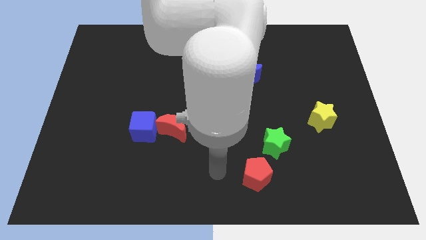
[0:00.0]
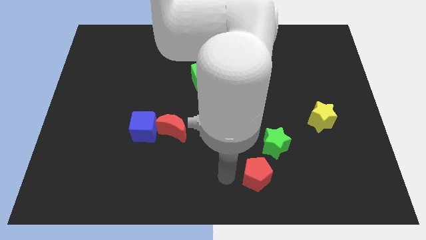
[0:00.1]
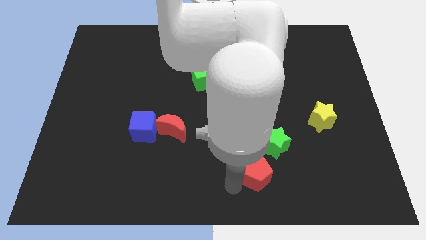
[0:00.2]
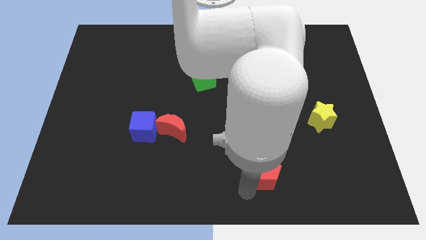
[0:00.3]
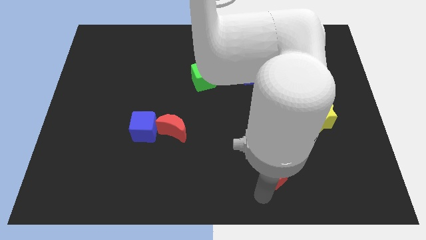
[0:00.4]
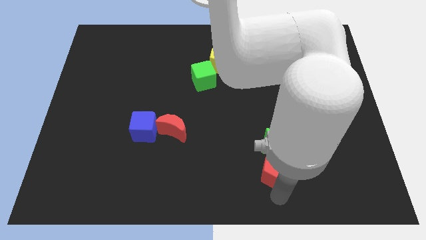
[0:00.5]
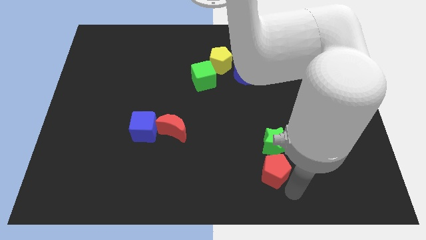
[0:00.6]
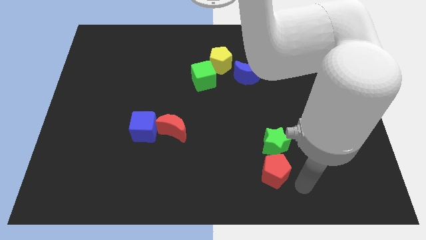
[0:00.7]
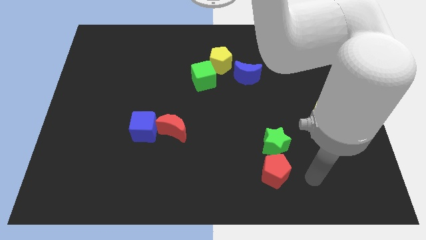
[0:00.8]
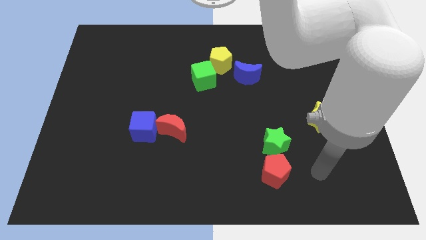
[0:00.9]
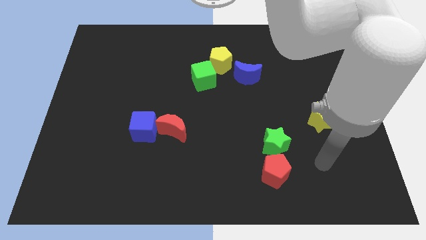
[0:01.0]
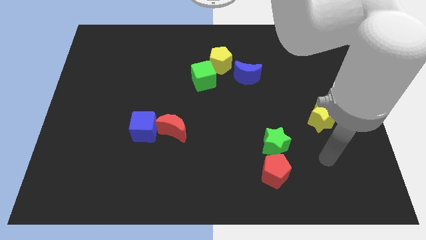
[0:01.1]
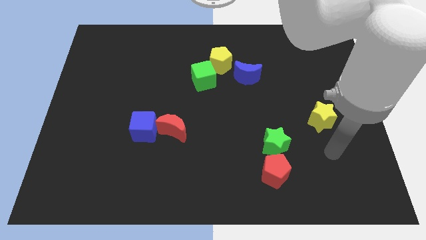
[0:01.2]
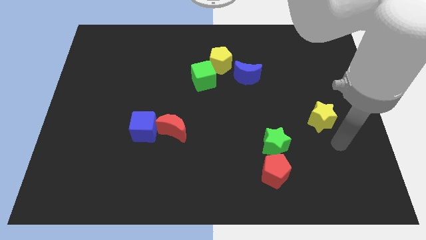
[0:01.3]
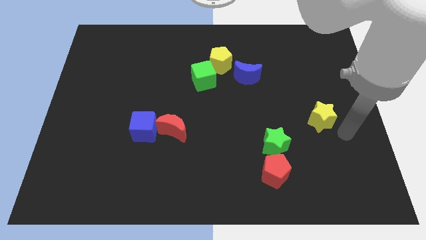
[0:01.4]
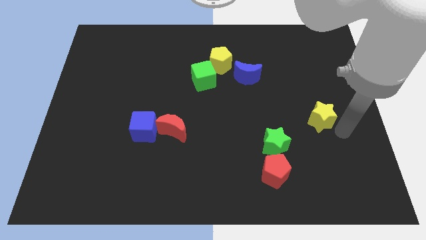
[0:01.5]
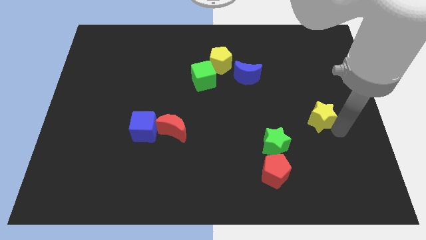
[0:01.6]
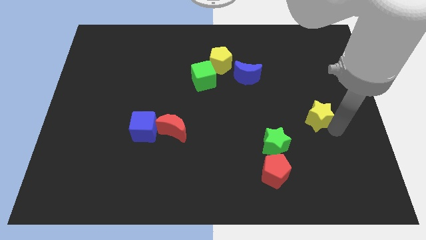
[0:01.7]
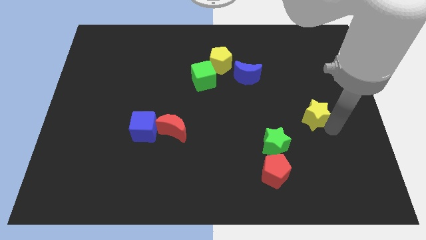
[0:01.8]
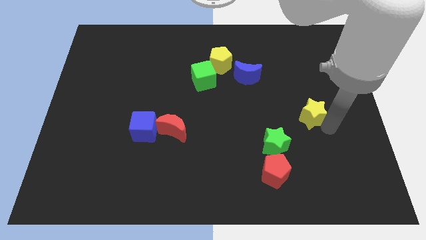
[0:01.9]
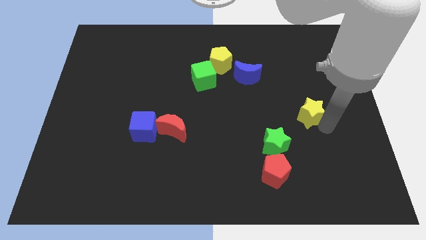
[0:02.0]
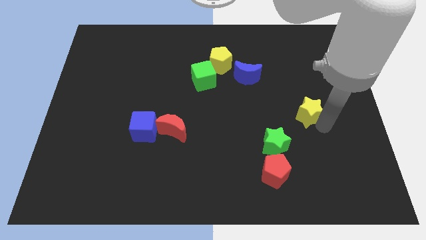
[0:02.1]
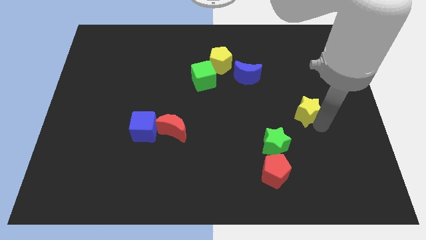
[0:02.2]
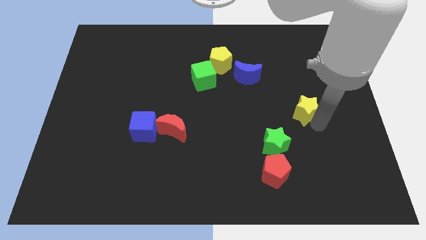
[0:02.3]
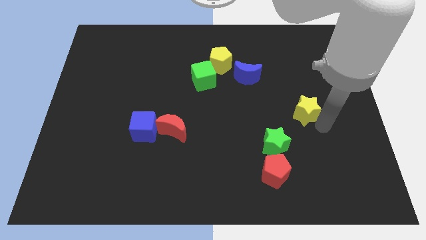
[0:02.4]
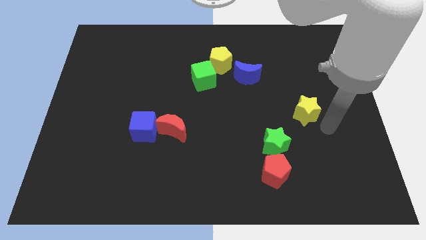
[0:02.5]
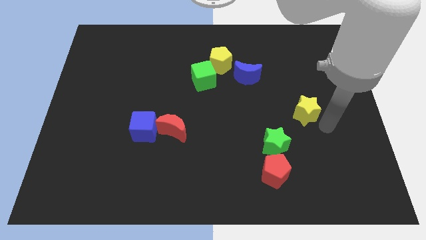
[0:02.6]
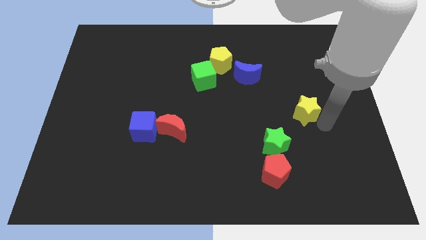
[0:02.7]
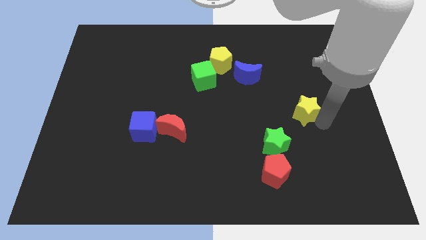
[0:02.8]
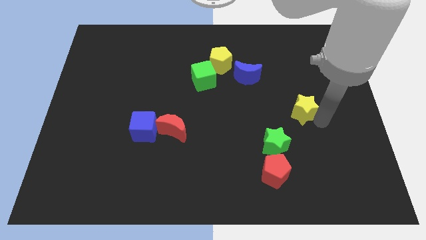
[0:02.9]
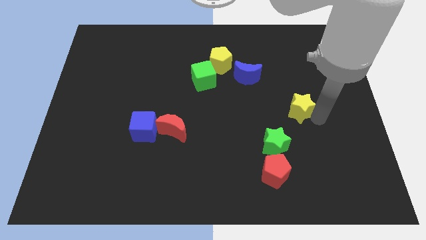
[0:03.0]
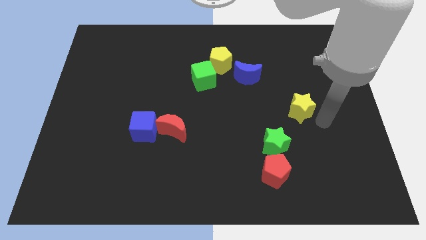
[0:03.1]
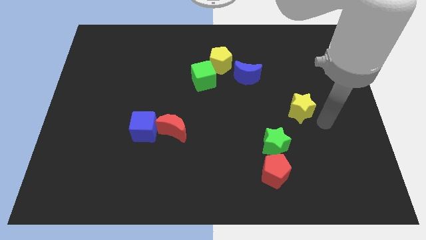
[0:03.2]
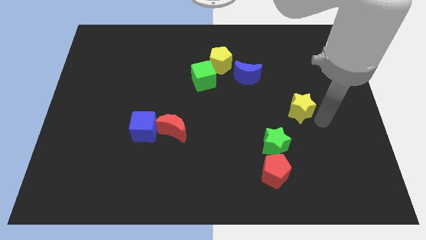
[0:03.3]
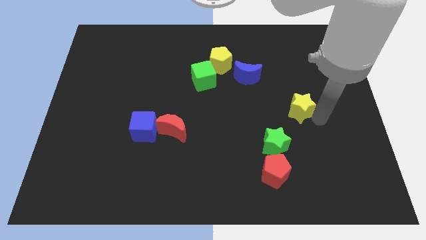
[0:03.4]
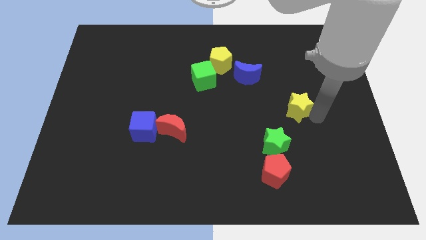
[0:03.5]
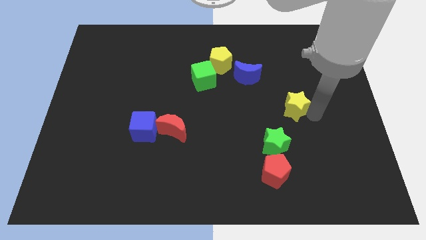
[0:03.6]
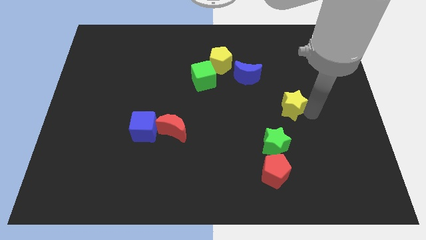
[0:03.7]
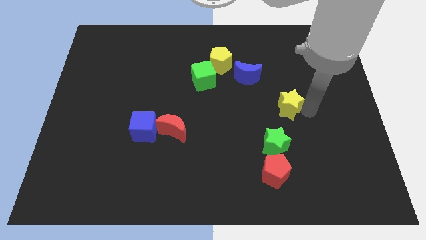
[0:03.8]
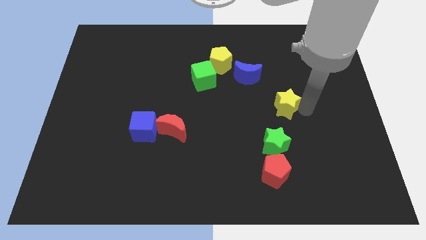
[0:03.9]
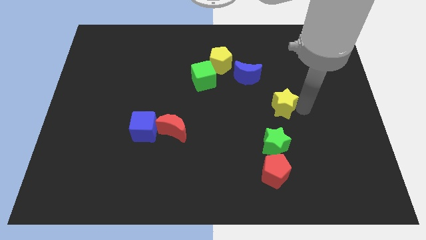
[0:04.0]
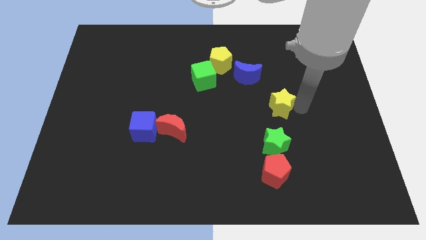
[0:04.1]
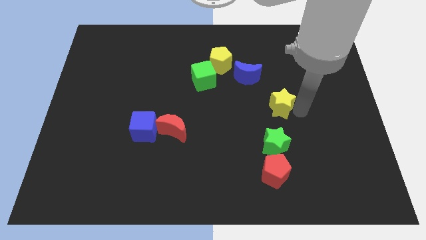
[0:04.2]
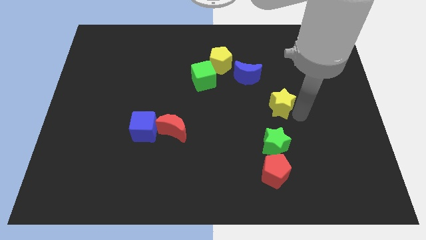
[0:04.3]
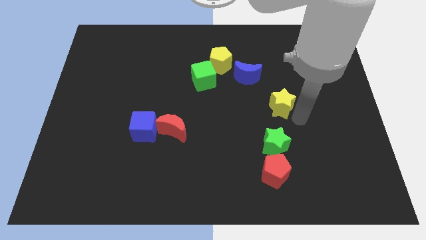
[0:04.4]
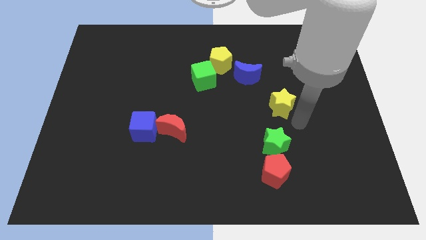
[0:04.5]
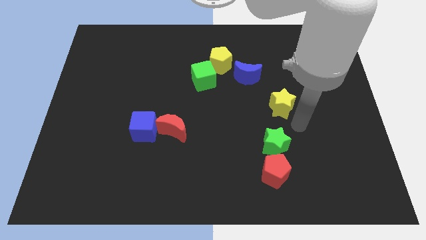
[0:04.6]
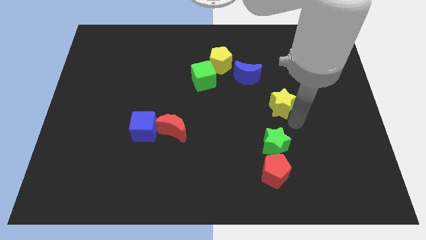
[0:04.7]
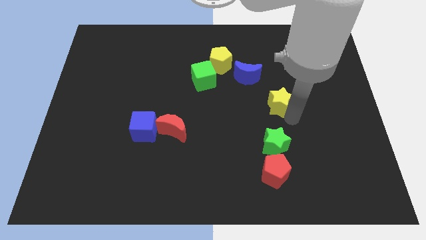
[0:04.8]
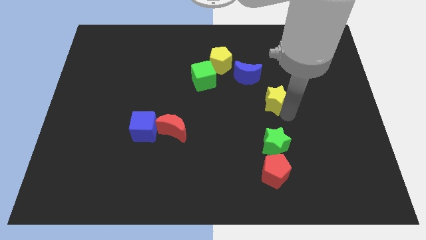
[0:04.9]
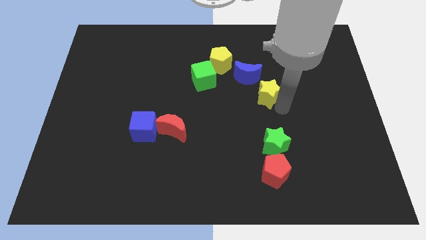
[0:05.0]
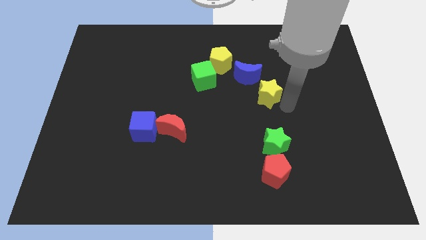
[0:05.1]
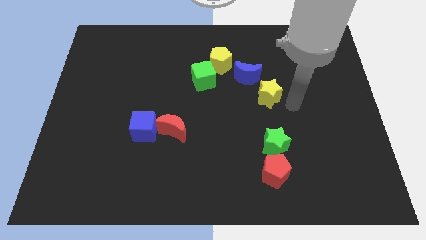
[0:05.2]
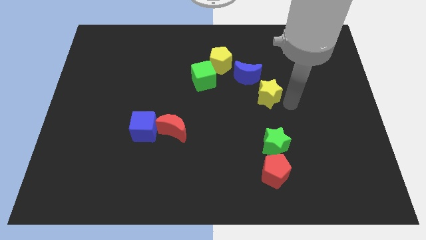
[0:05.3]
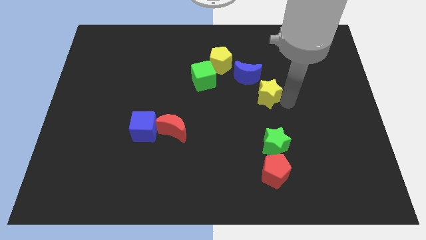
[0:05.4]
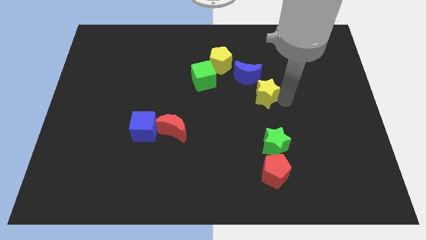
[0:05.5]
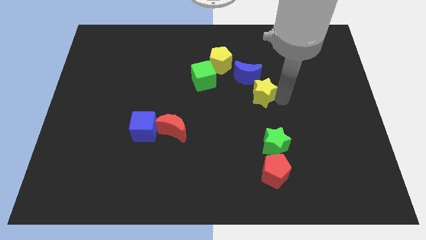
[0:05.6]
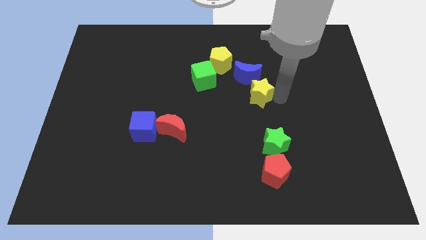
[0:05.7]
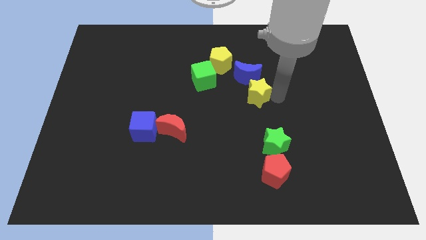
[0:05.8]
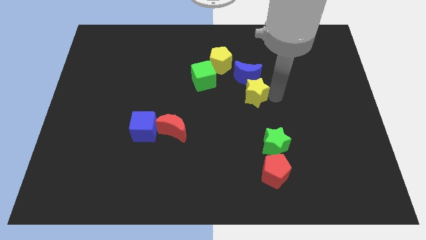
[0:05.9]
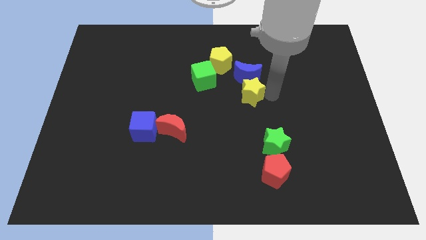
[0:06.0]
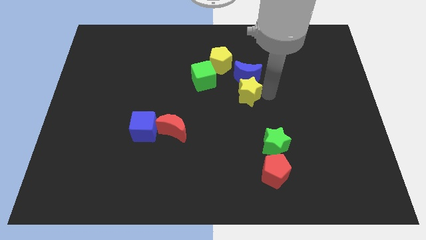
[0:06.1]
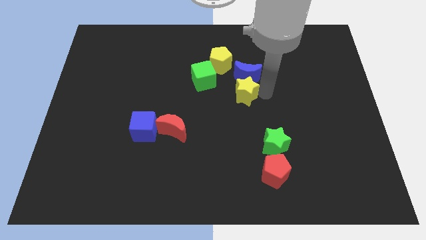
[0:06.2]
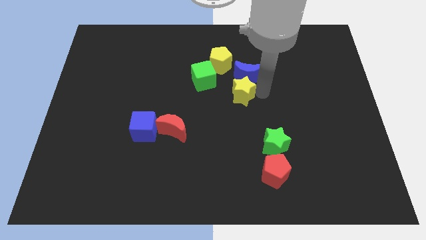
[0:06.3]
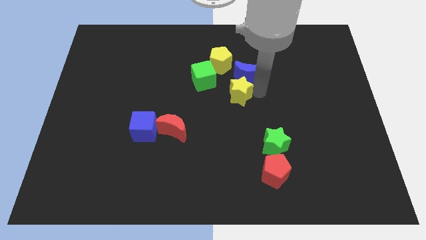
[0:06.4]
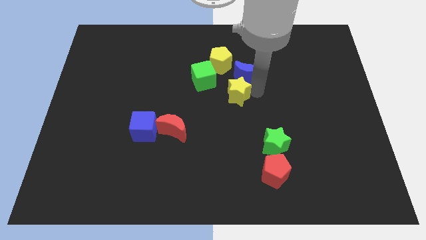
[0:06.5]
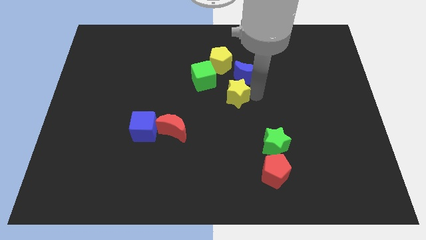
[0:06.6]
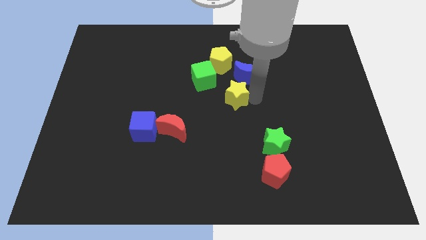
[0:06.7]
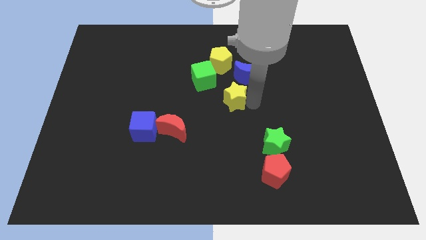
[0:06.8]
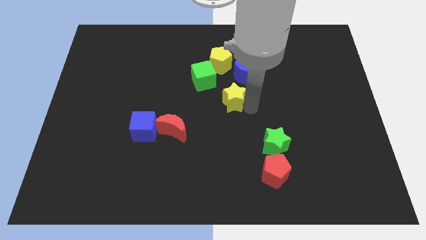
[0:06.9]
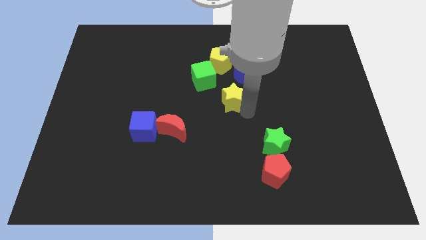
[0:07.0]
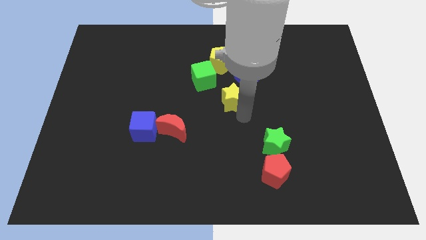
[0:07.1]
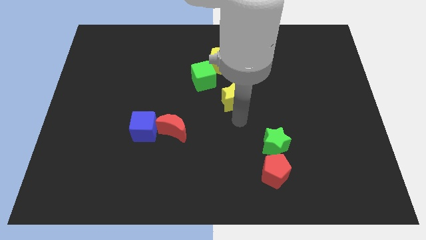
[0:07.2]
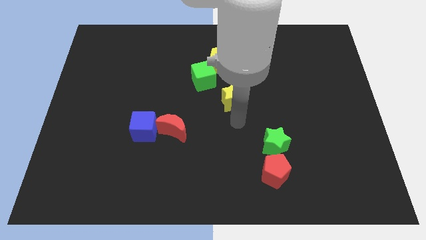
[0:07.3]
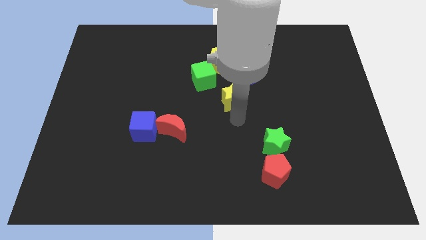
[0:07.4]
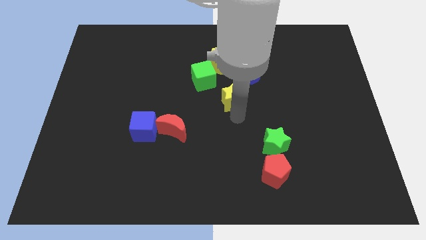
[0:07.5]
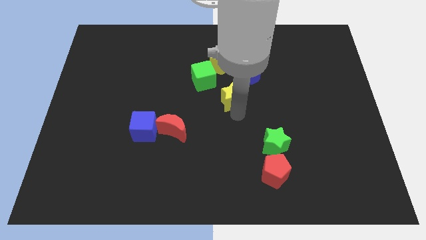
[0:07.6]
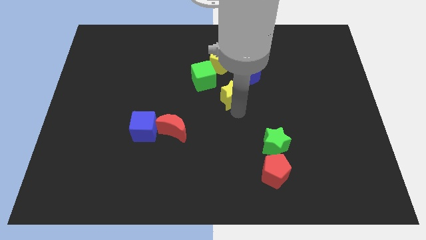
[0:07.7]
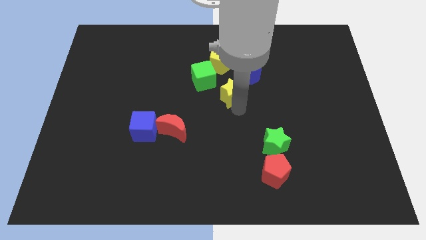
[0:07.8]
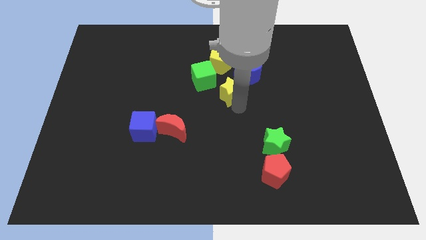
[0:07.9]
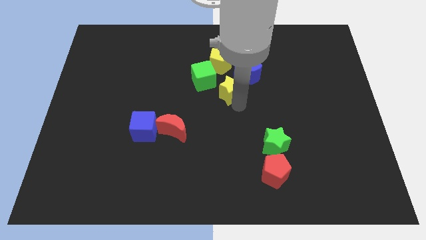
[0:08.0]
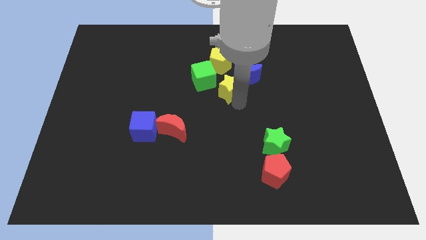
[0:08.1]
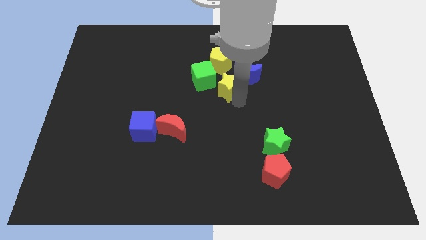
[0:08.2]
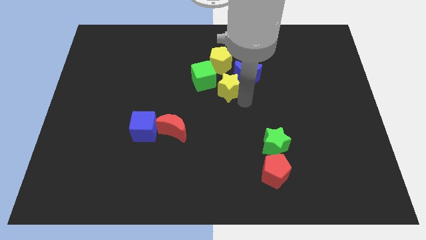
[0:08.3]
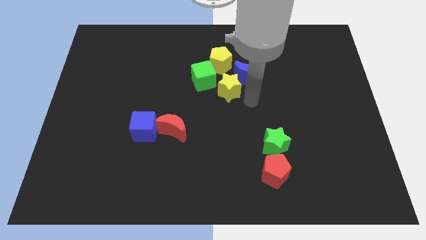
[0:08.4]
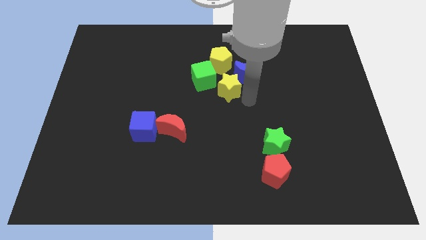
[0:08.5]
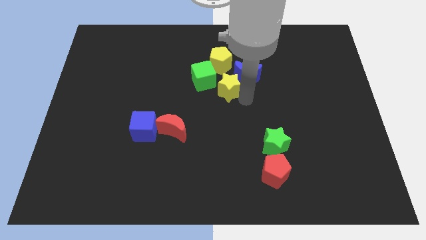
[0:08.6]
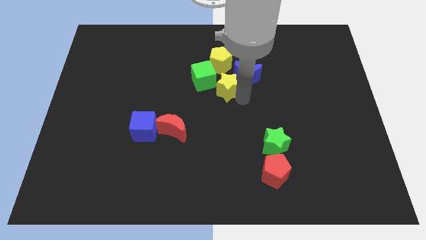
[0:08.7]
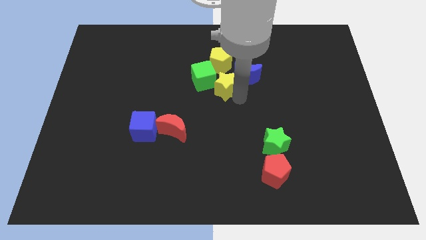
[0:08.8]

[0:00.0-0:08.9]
slide the yellow star towards the green cube
